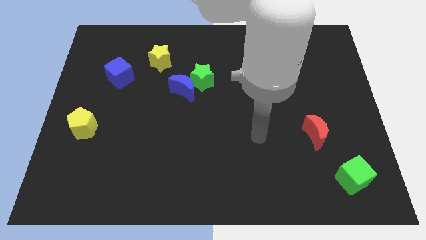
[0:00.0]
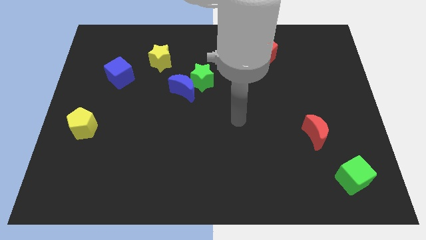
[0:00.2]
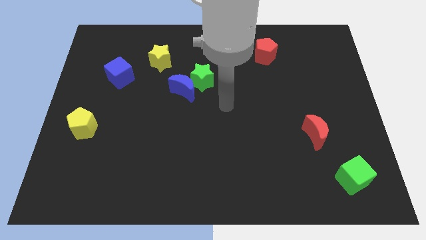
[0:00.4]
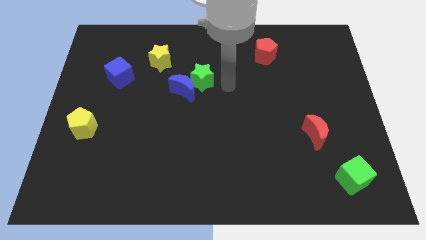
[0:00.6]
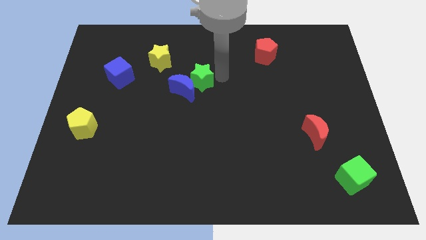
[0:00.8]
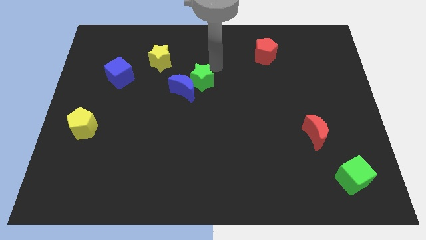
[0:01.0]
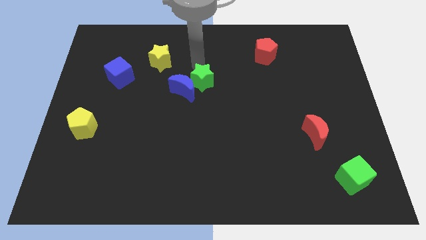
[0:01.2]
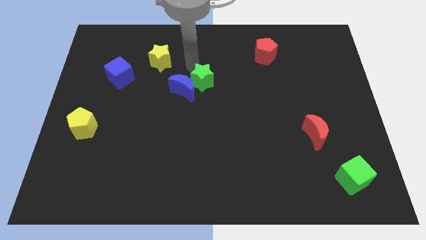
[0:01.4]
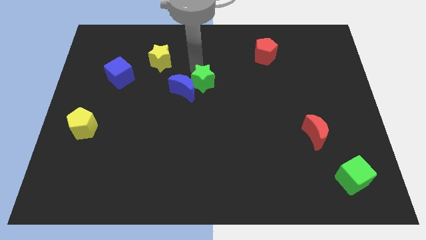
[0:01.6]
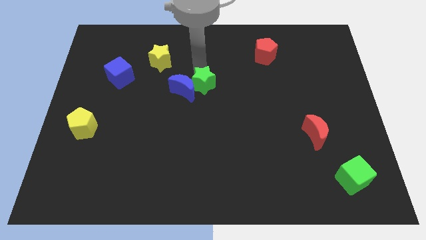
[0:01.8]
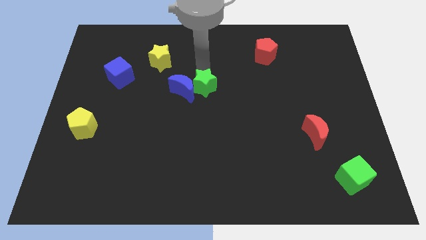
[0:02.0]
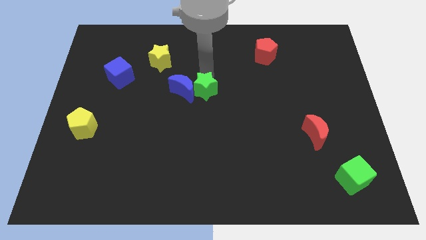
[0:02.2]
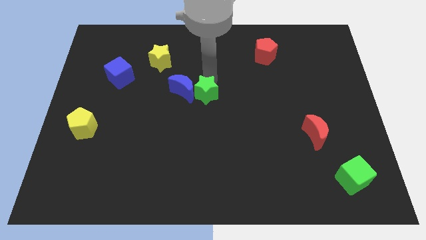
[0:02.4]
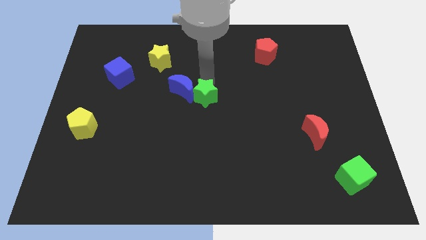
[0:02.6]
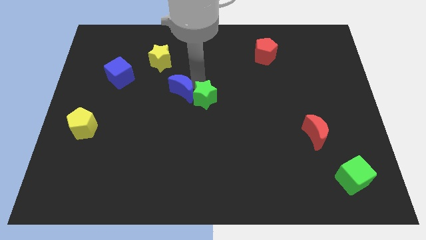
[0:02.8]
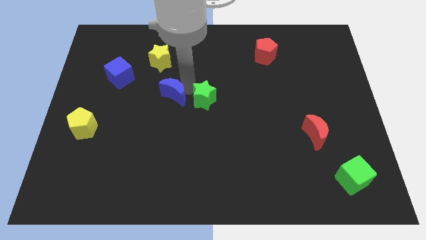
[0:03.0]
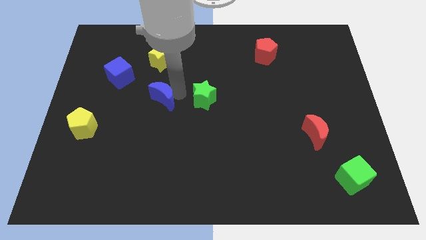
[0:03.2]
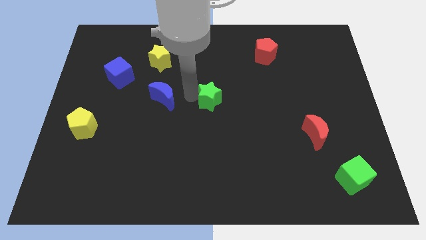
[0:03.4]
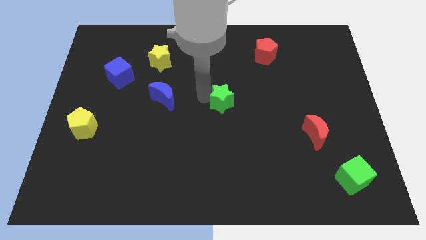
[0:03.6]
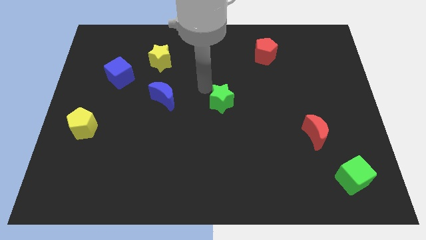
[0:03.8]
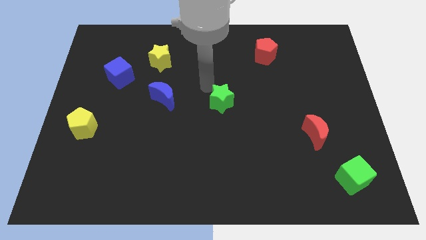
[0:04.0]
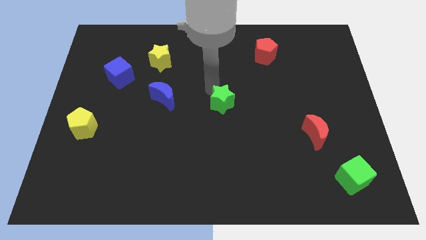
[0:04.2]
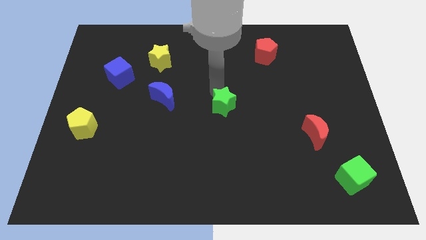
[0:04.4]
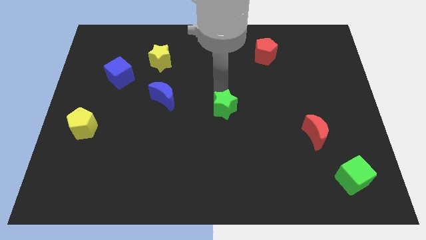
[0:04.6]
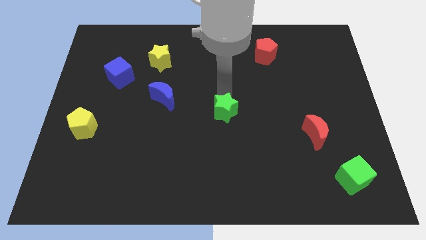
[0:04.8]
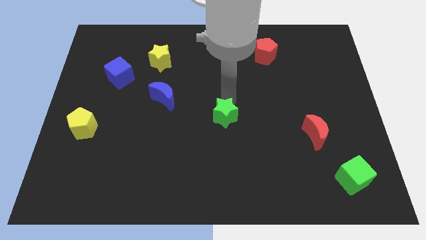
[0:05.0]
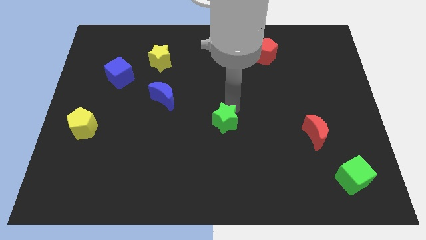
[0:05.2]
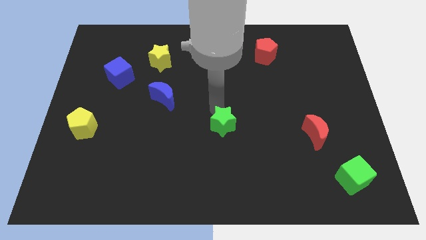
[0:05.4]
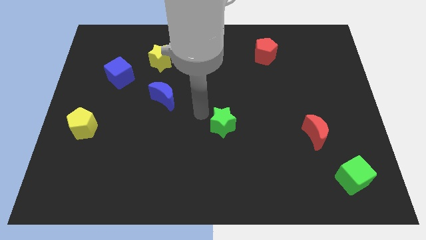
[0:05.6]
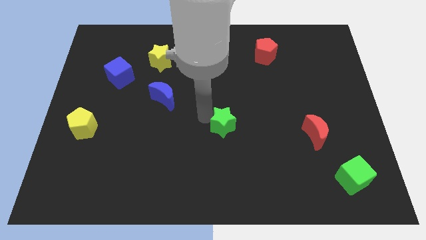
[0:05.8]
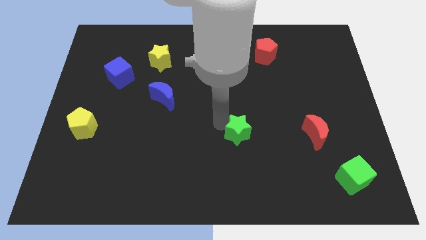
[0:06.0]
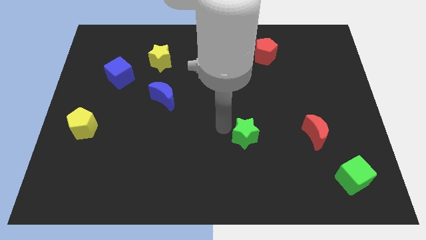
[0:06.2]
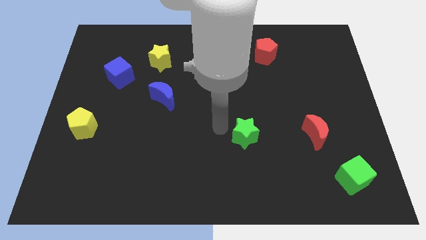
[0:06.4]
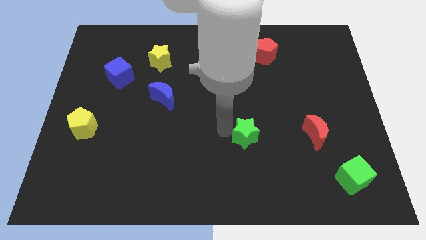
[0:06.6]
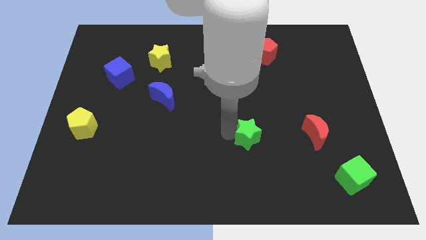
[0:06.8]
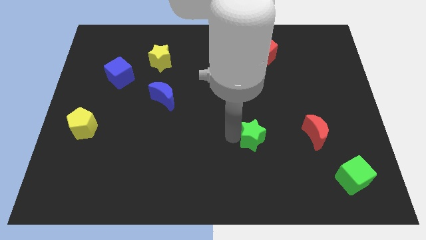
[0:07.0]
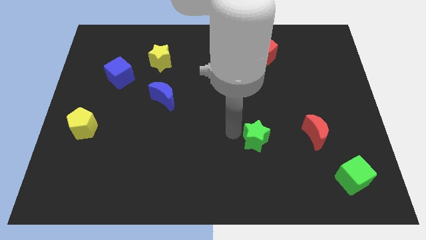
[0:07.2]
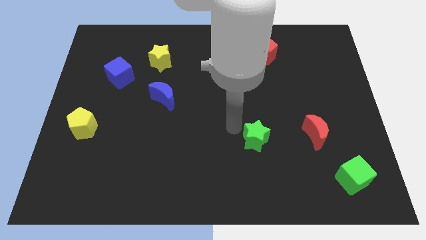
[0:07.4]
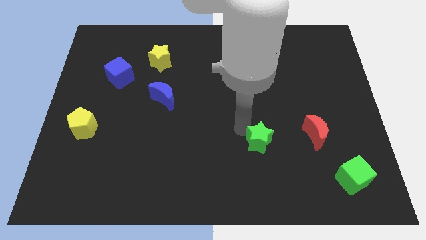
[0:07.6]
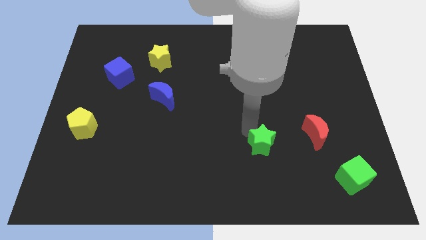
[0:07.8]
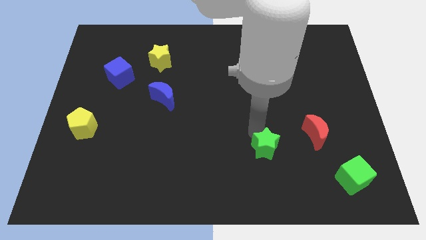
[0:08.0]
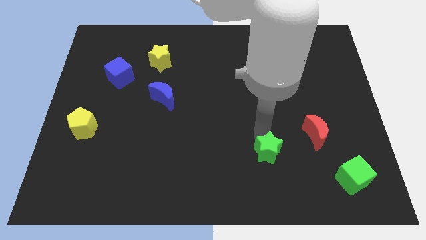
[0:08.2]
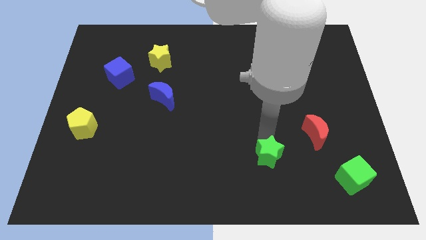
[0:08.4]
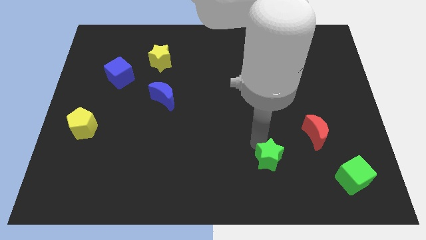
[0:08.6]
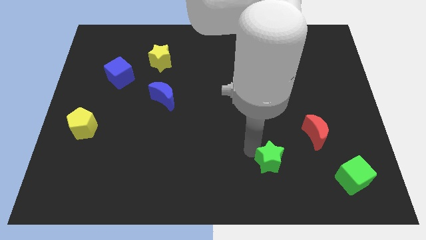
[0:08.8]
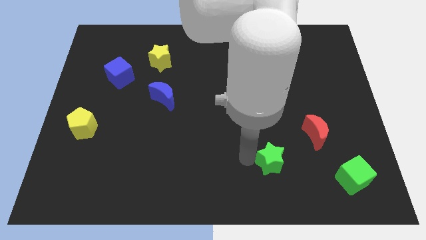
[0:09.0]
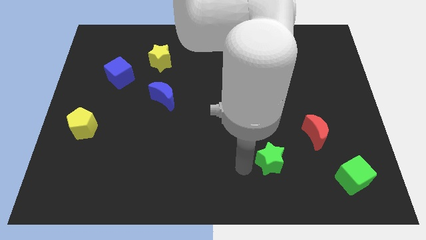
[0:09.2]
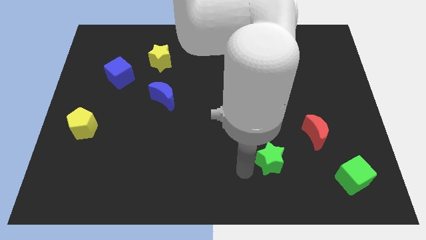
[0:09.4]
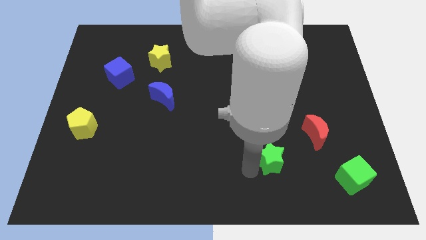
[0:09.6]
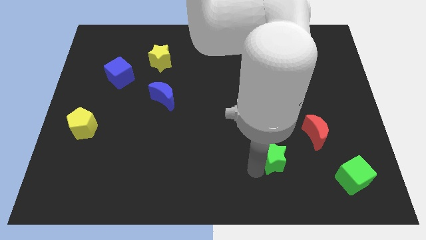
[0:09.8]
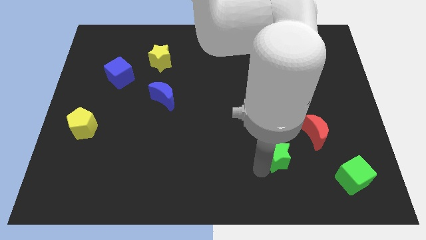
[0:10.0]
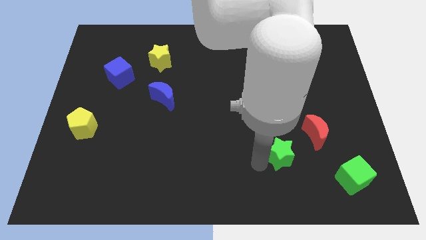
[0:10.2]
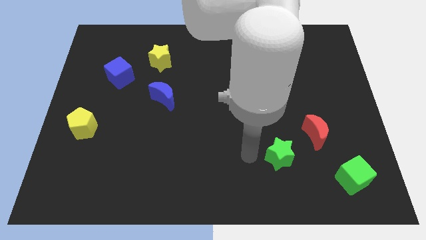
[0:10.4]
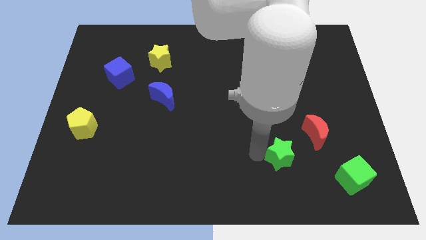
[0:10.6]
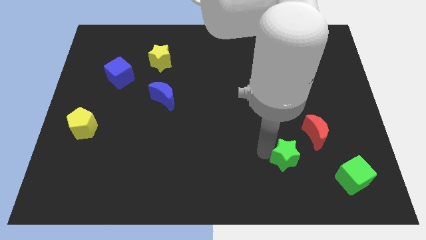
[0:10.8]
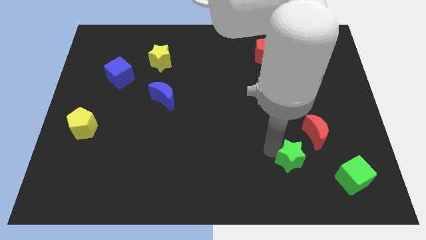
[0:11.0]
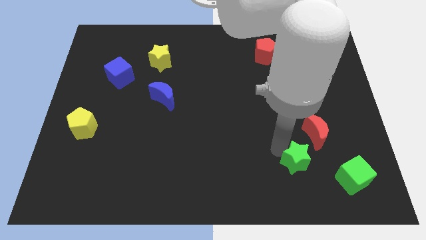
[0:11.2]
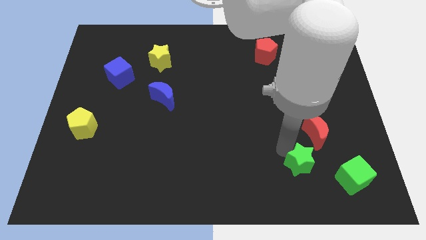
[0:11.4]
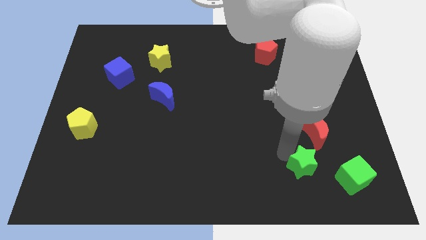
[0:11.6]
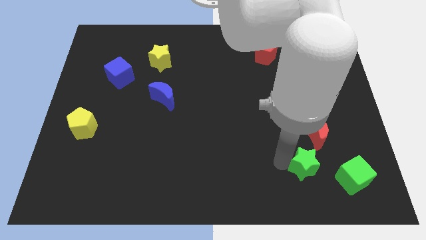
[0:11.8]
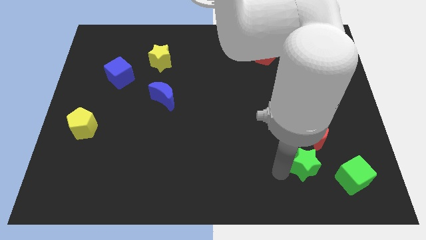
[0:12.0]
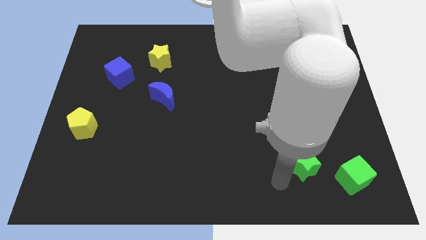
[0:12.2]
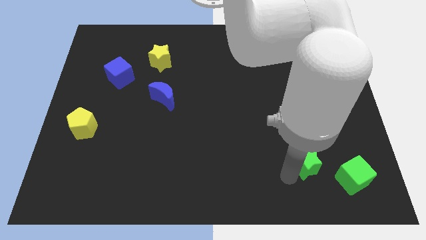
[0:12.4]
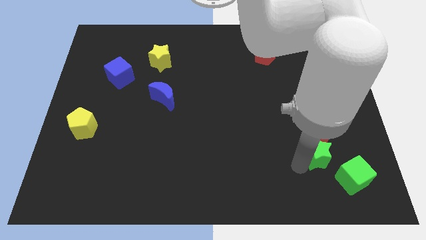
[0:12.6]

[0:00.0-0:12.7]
put the green star to the bottom right of the red moon

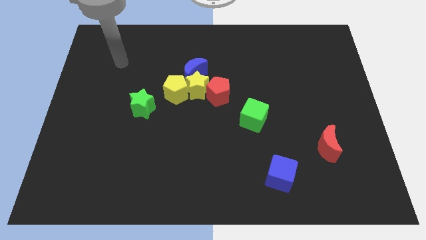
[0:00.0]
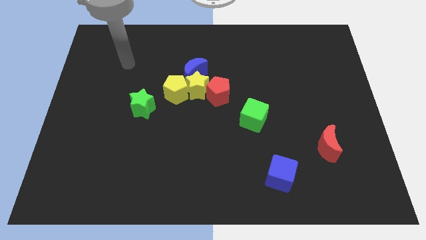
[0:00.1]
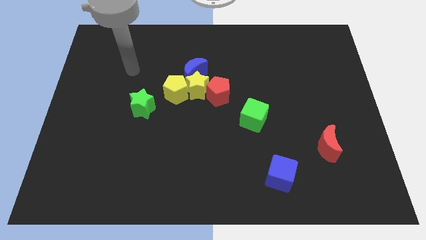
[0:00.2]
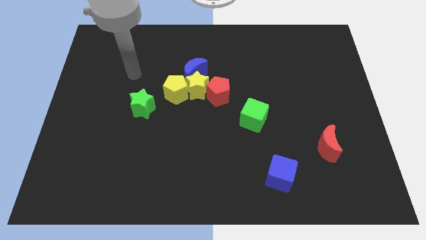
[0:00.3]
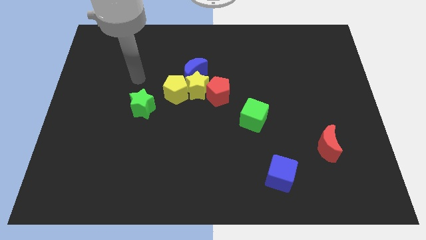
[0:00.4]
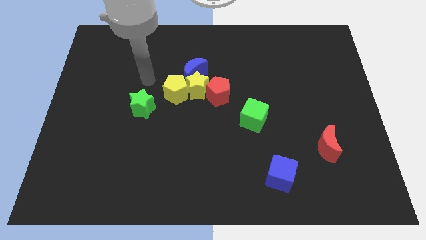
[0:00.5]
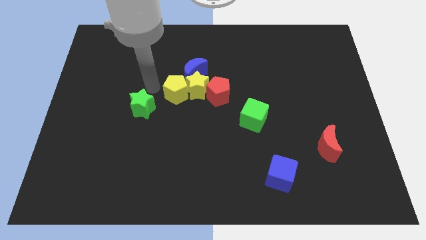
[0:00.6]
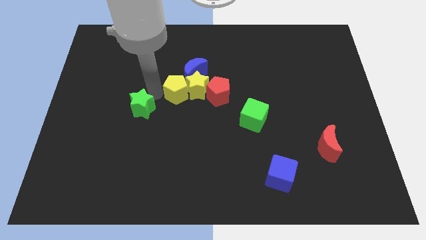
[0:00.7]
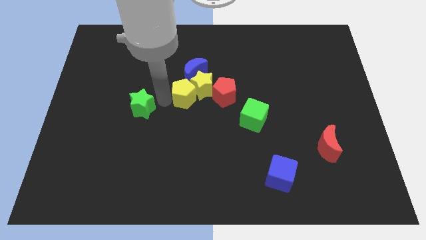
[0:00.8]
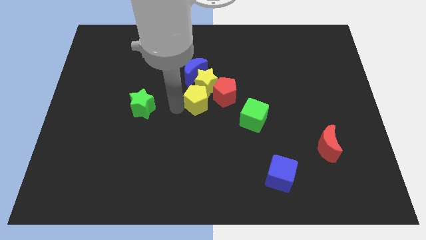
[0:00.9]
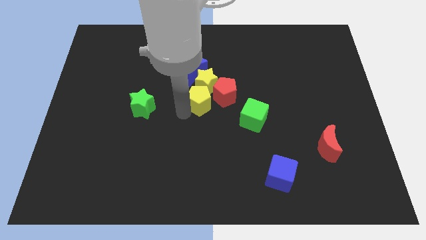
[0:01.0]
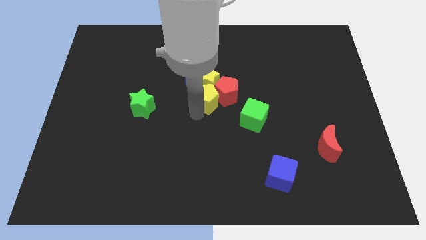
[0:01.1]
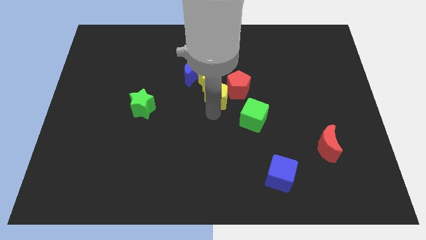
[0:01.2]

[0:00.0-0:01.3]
move the red pentagon to the right of the blue moon
